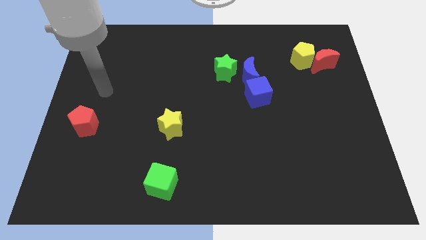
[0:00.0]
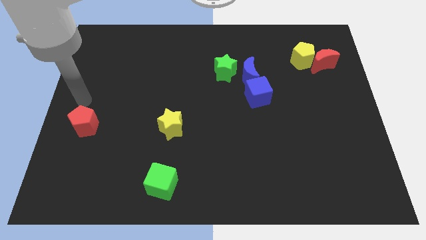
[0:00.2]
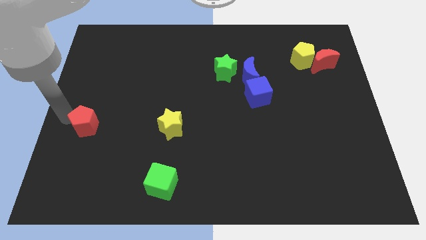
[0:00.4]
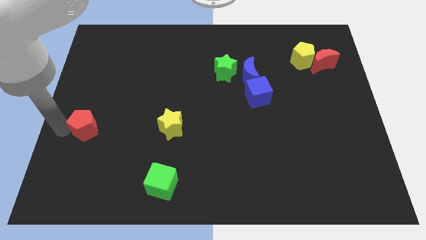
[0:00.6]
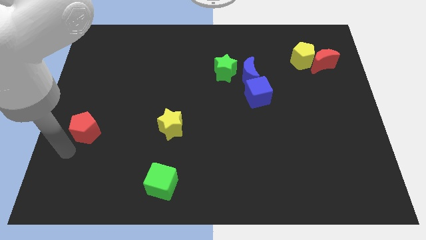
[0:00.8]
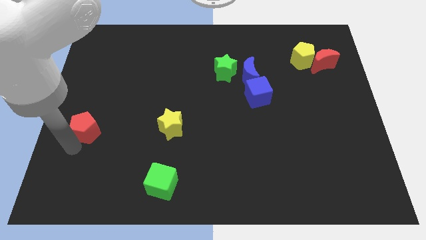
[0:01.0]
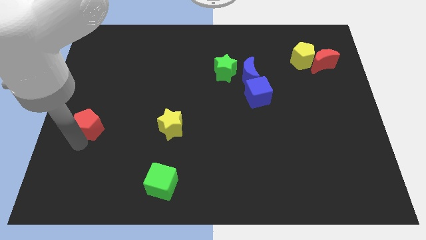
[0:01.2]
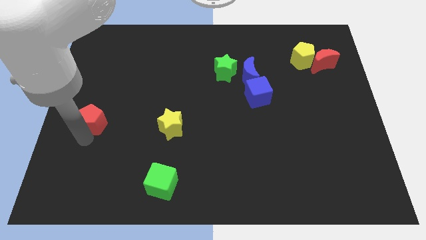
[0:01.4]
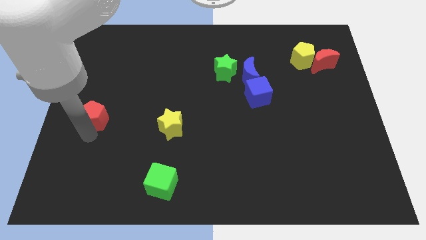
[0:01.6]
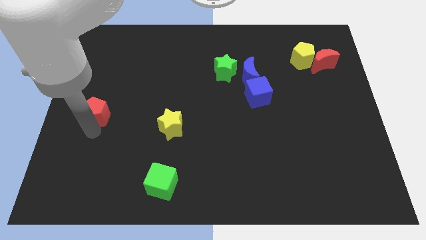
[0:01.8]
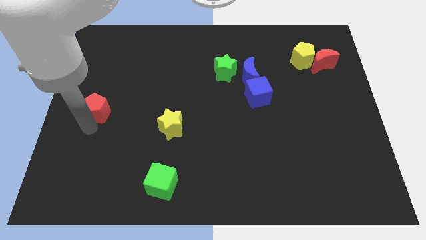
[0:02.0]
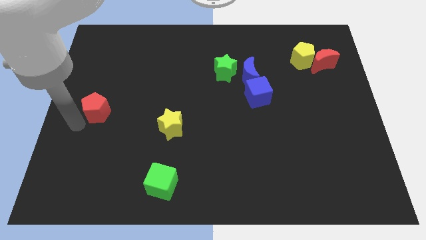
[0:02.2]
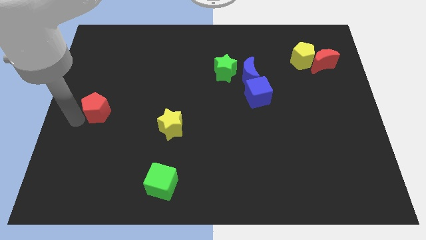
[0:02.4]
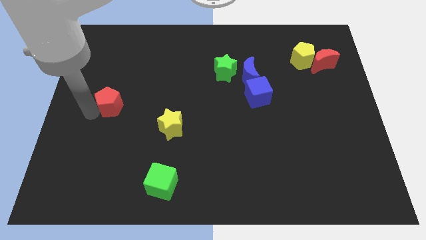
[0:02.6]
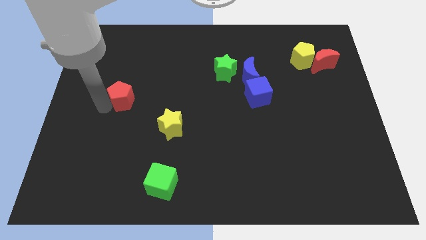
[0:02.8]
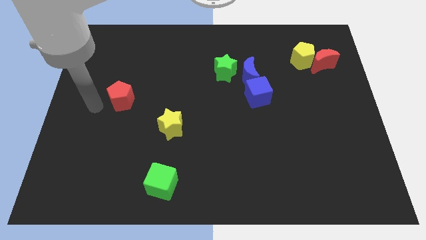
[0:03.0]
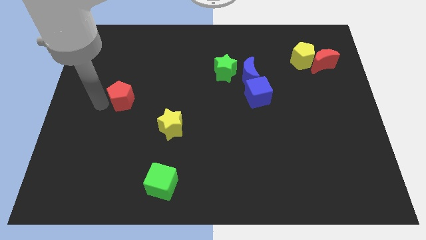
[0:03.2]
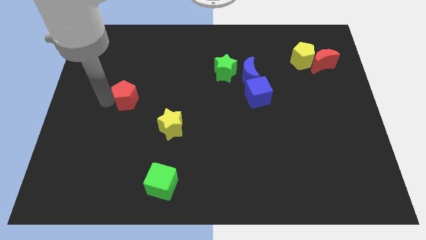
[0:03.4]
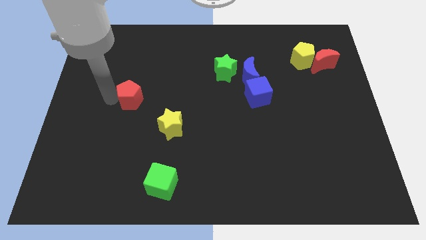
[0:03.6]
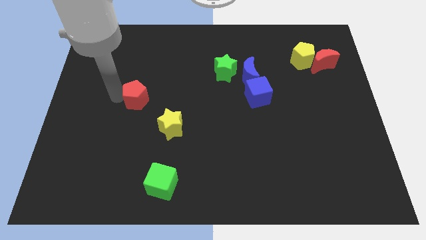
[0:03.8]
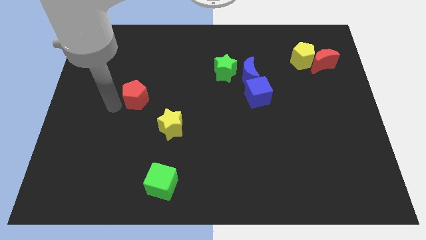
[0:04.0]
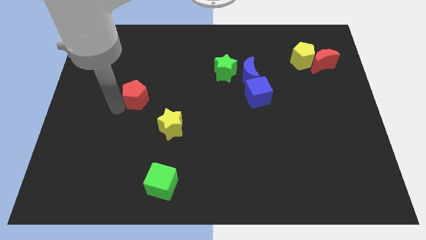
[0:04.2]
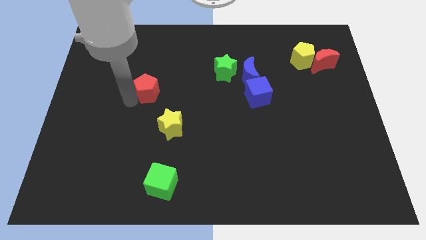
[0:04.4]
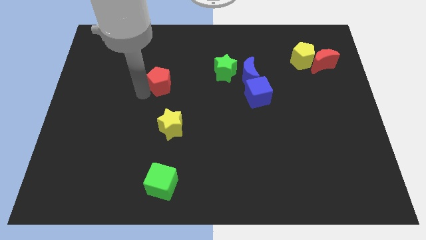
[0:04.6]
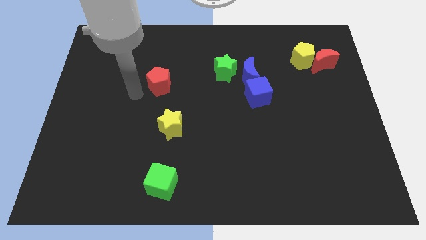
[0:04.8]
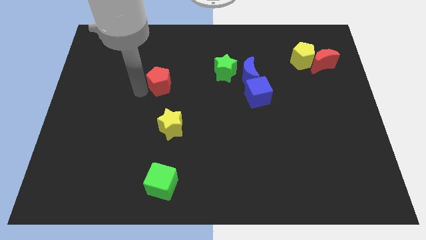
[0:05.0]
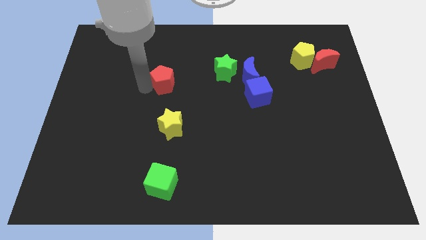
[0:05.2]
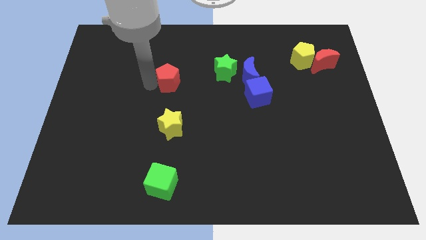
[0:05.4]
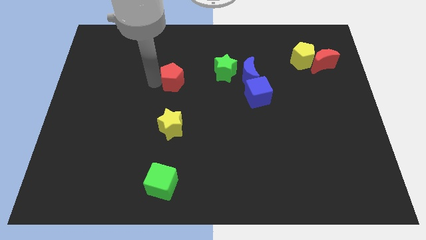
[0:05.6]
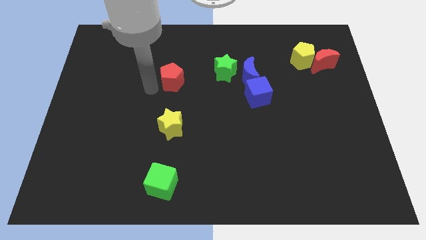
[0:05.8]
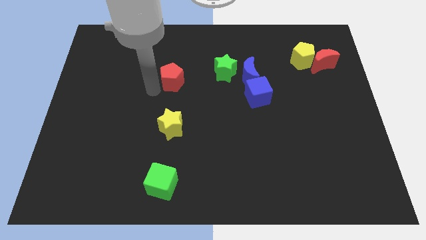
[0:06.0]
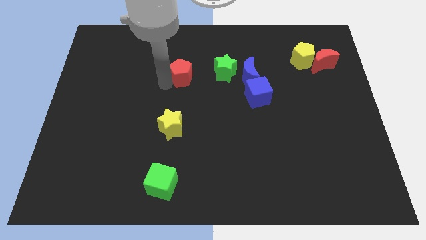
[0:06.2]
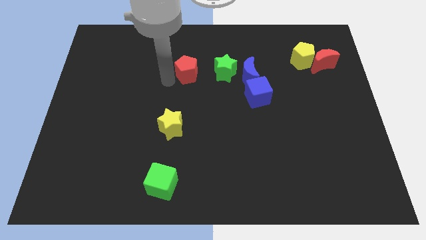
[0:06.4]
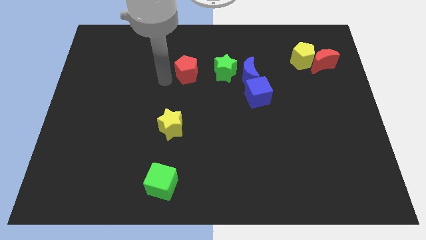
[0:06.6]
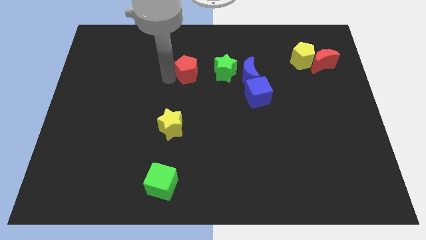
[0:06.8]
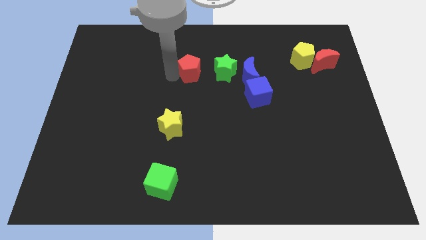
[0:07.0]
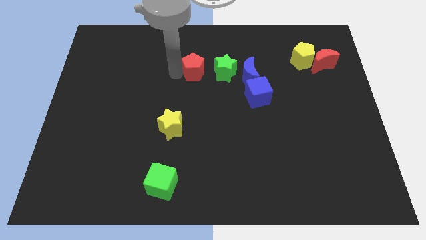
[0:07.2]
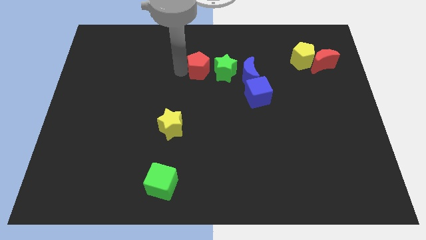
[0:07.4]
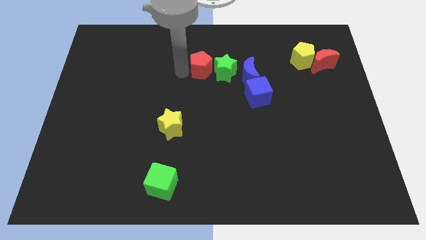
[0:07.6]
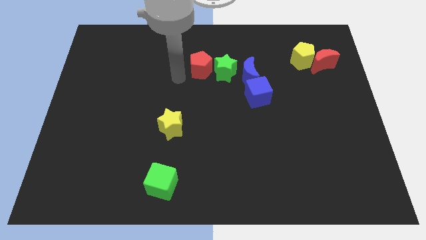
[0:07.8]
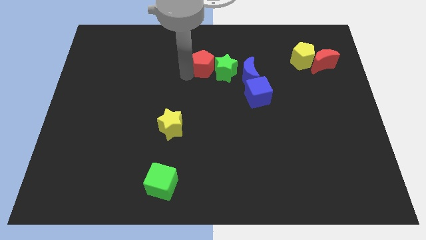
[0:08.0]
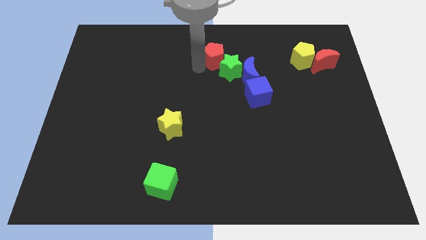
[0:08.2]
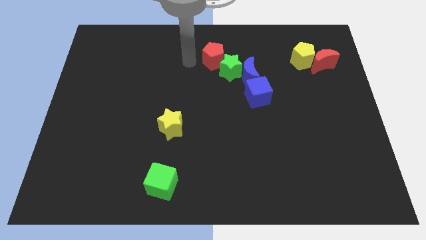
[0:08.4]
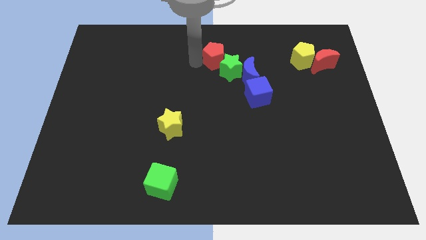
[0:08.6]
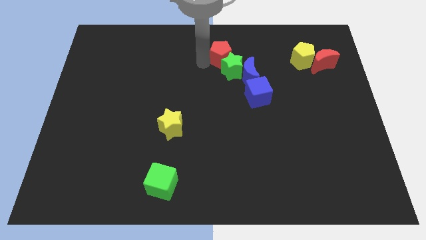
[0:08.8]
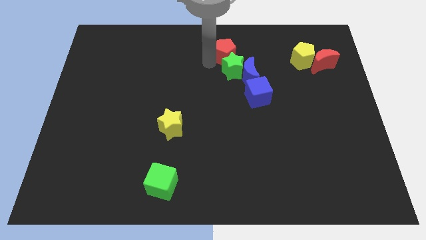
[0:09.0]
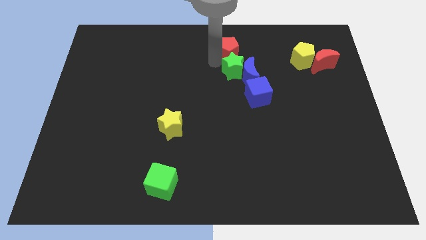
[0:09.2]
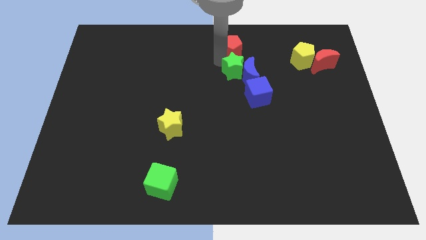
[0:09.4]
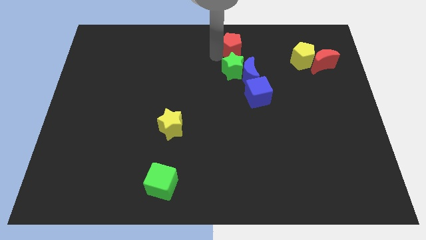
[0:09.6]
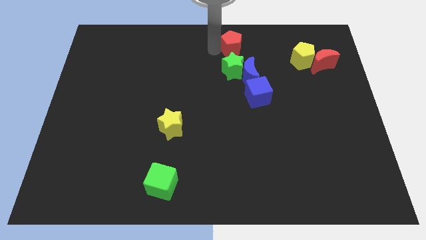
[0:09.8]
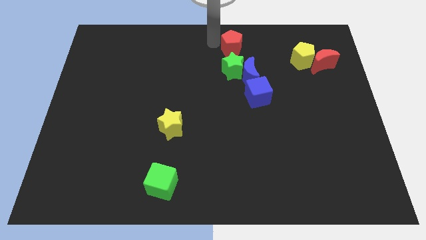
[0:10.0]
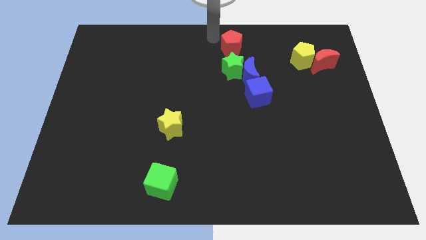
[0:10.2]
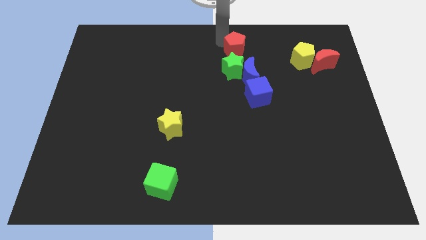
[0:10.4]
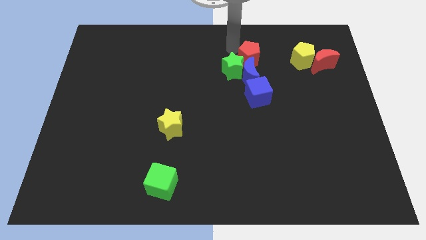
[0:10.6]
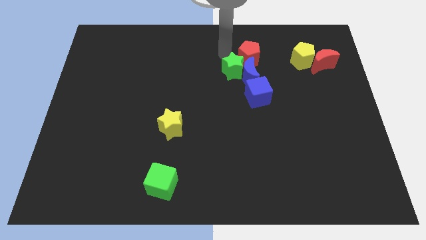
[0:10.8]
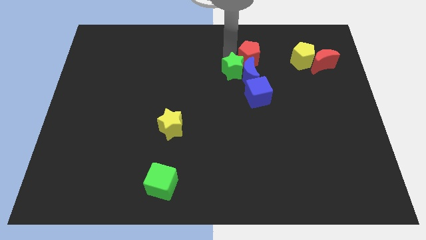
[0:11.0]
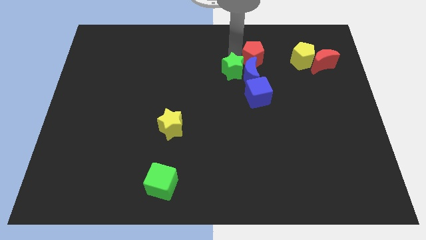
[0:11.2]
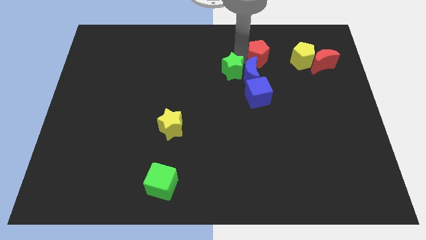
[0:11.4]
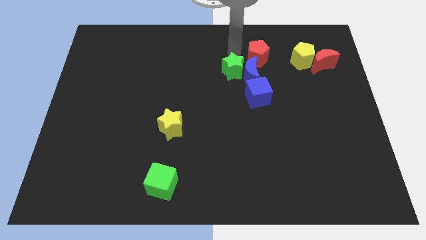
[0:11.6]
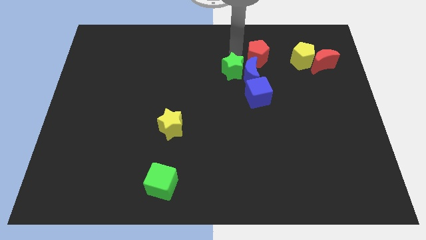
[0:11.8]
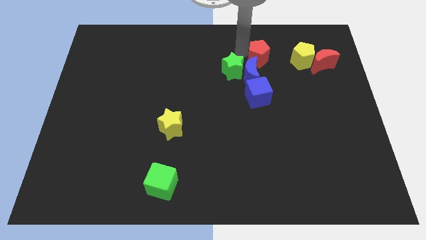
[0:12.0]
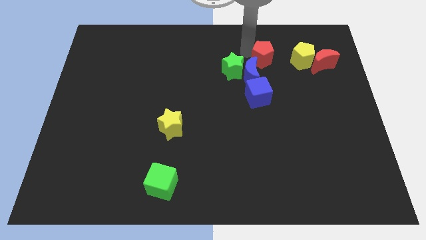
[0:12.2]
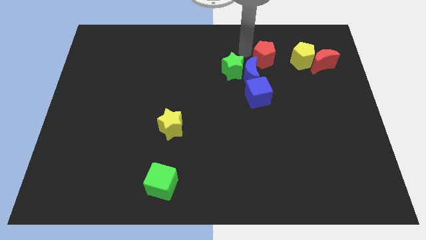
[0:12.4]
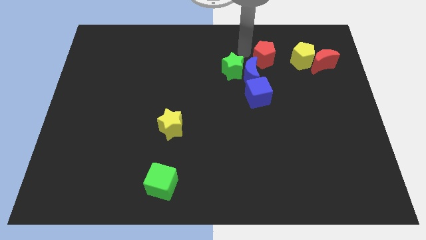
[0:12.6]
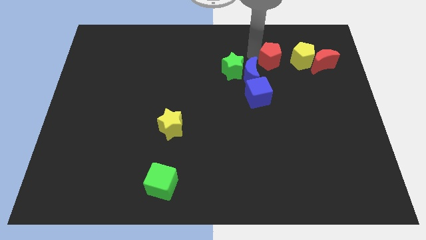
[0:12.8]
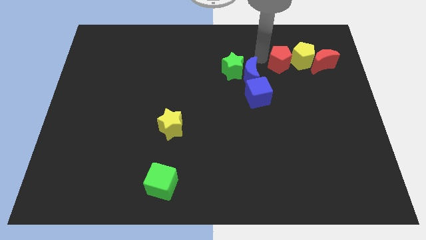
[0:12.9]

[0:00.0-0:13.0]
move the red pentagon towards the yellow pentagon

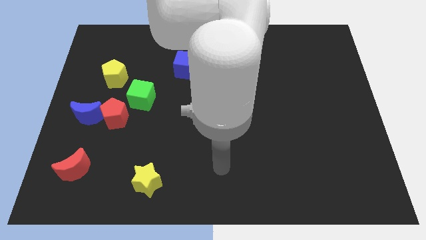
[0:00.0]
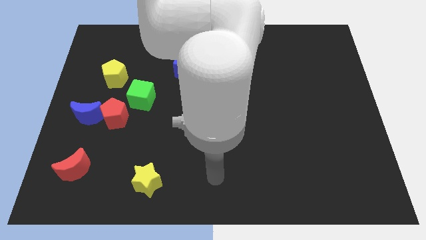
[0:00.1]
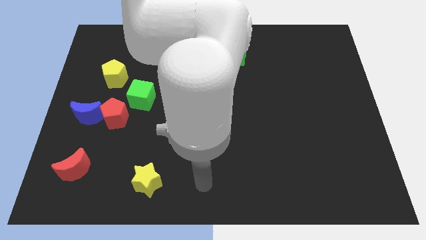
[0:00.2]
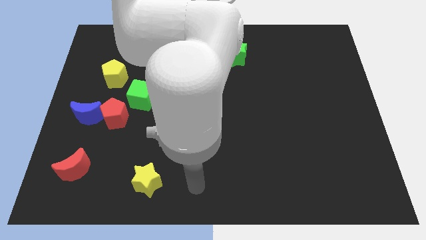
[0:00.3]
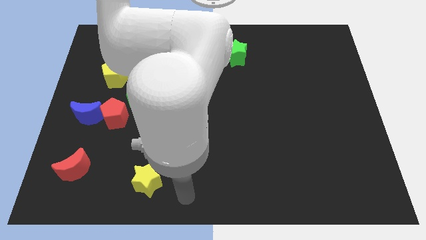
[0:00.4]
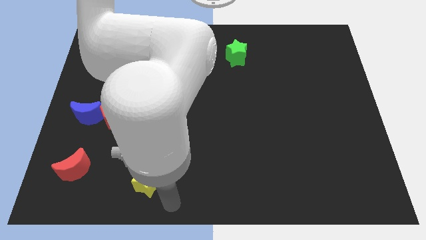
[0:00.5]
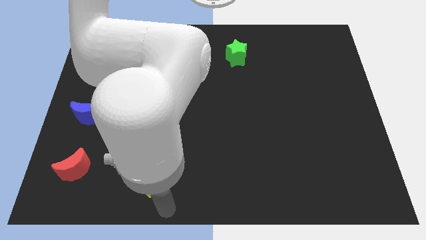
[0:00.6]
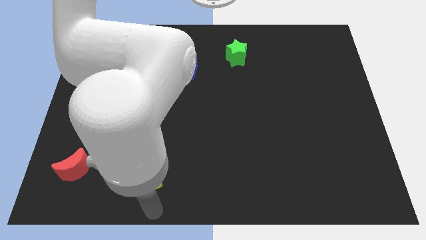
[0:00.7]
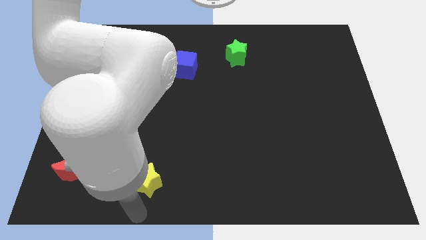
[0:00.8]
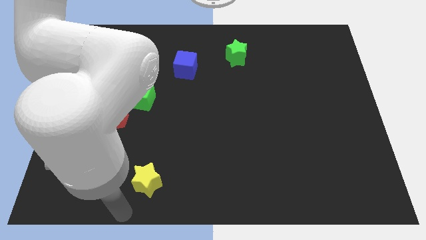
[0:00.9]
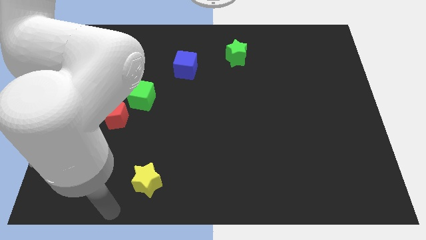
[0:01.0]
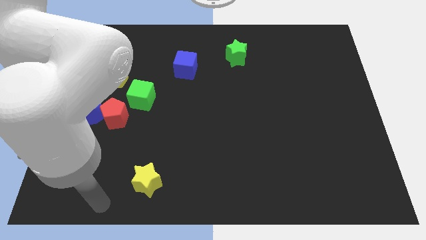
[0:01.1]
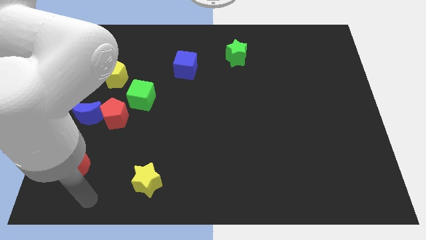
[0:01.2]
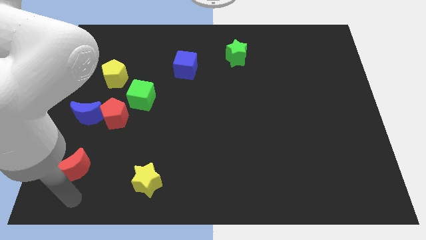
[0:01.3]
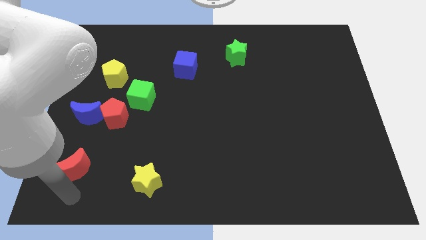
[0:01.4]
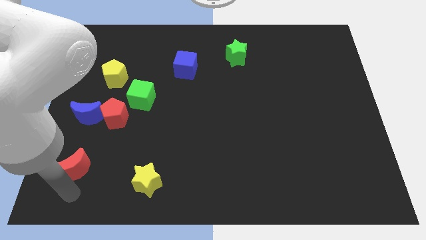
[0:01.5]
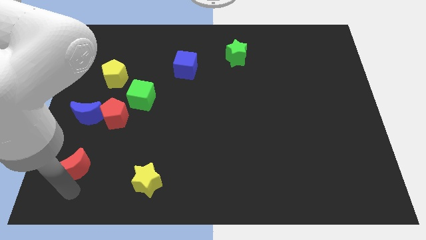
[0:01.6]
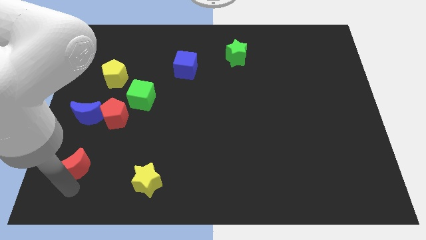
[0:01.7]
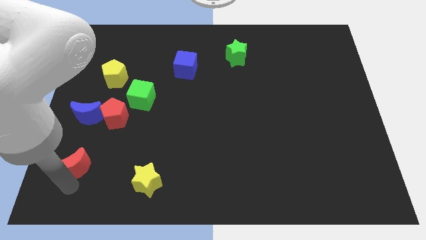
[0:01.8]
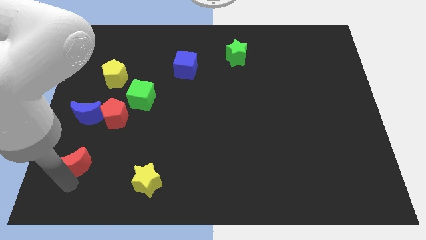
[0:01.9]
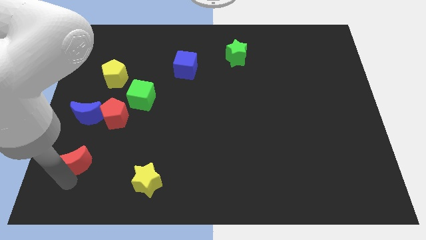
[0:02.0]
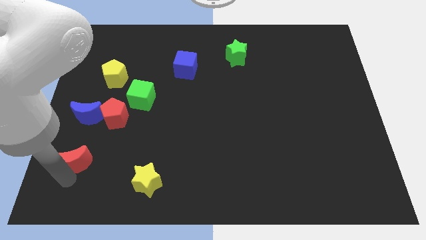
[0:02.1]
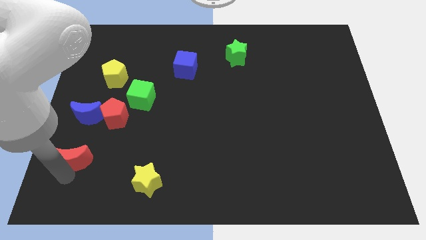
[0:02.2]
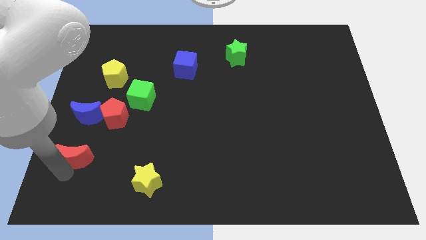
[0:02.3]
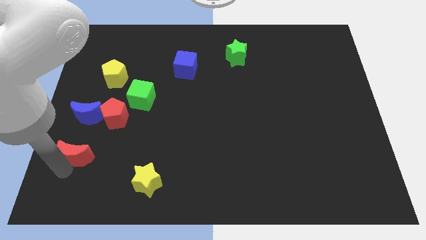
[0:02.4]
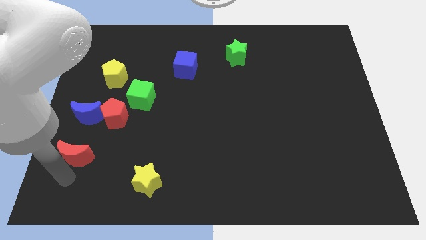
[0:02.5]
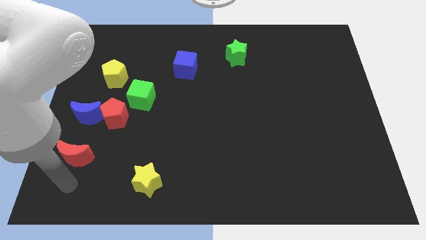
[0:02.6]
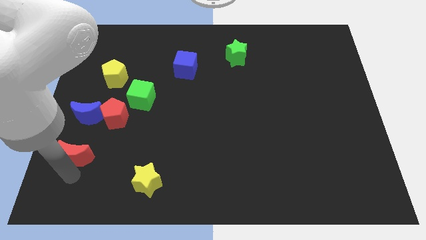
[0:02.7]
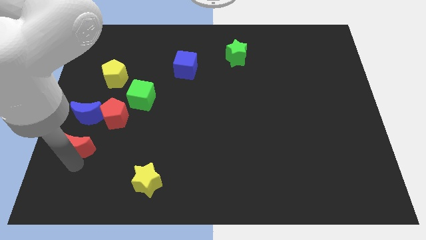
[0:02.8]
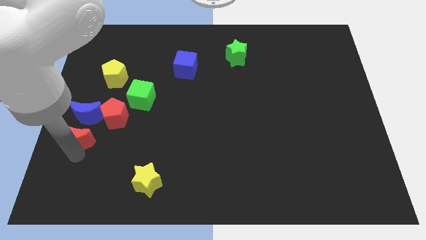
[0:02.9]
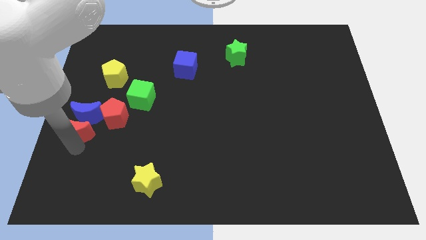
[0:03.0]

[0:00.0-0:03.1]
slide the red moon next to the blue moon
